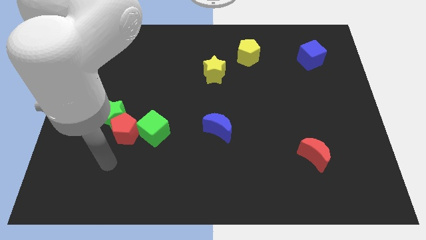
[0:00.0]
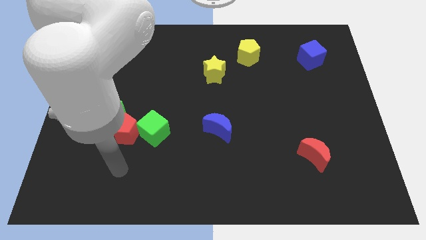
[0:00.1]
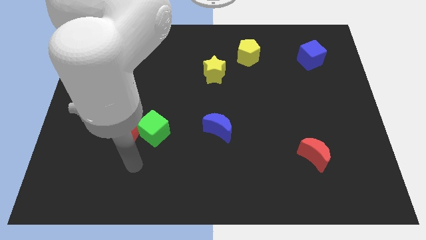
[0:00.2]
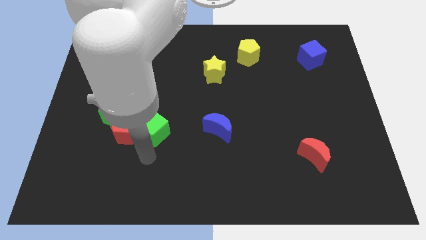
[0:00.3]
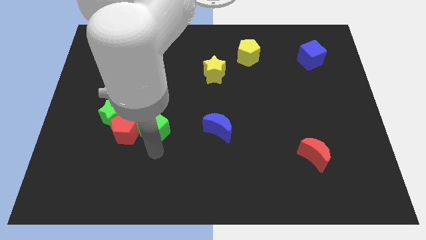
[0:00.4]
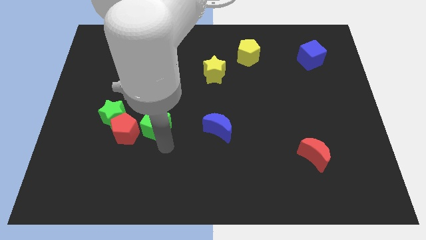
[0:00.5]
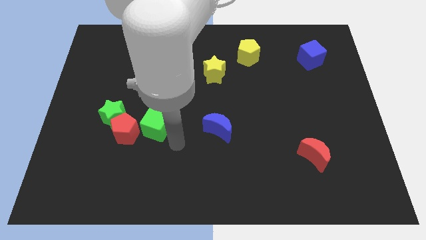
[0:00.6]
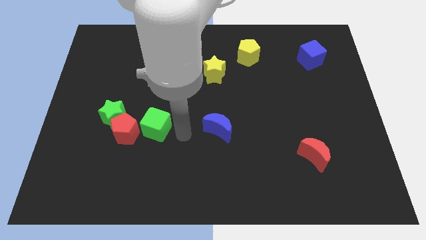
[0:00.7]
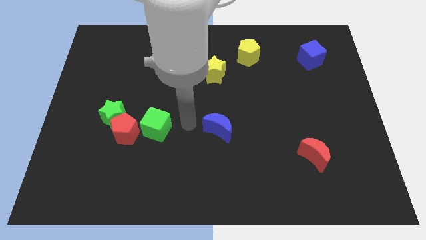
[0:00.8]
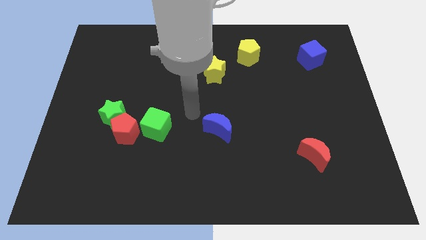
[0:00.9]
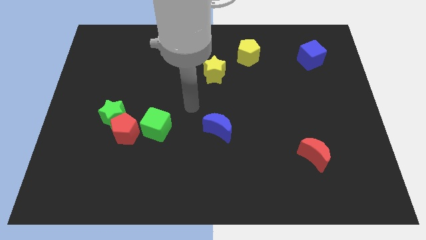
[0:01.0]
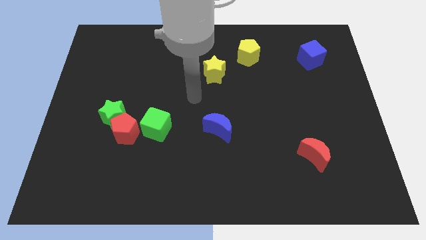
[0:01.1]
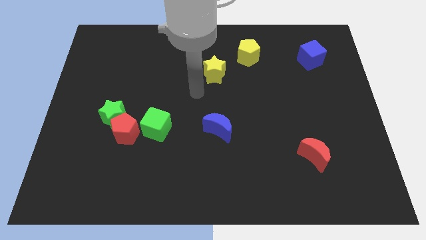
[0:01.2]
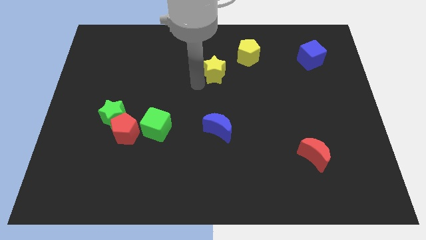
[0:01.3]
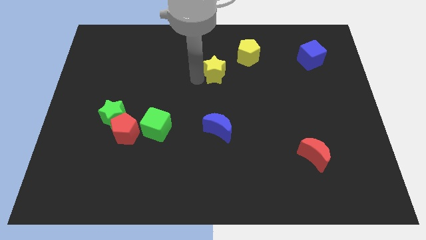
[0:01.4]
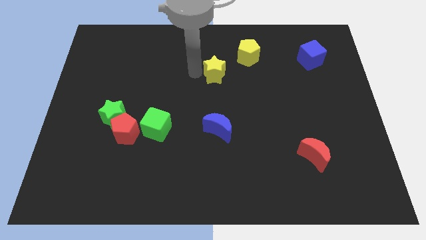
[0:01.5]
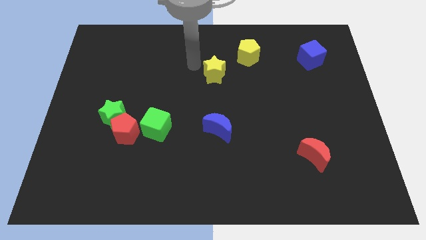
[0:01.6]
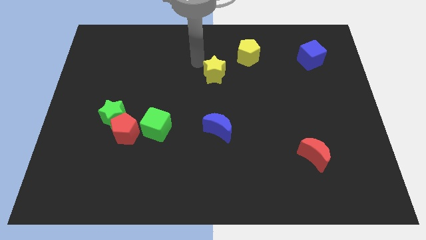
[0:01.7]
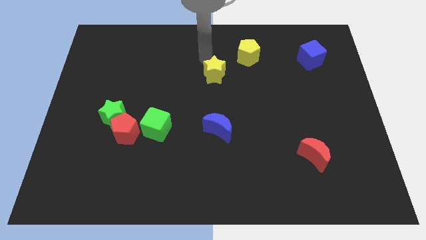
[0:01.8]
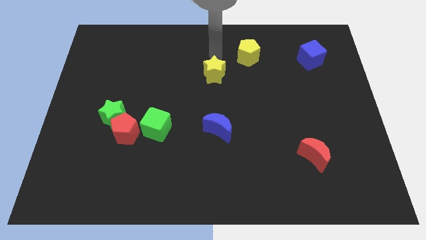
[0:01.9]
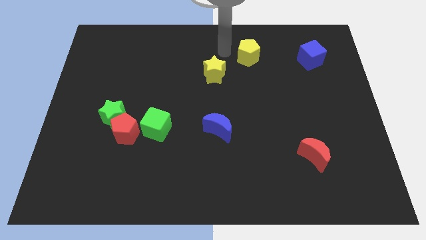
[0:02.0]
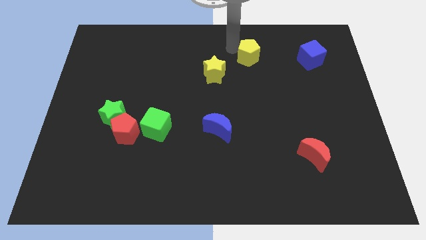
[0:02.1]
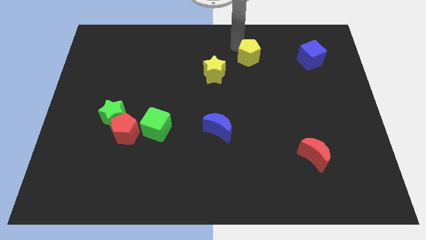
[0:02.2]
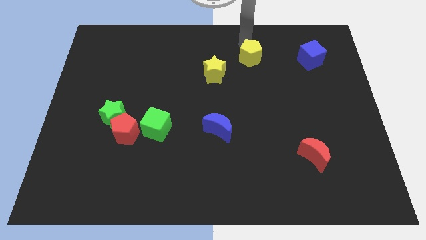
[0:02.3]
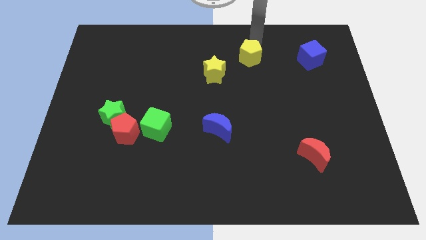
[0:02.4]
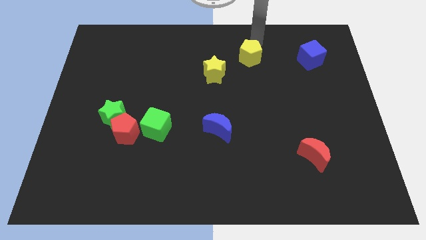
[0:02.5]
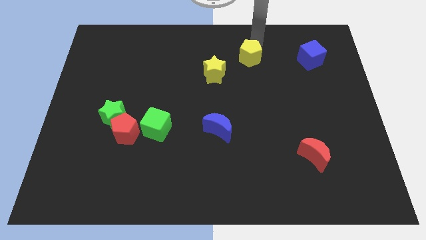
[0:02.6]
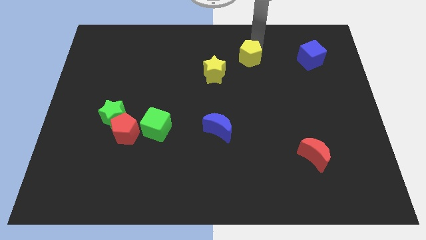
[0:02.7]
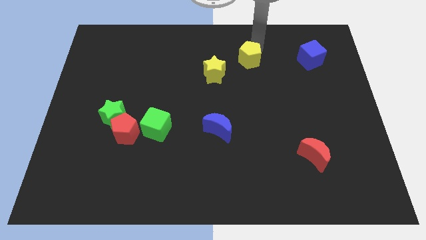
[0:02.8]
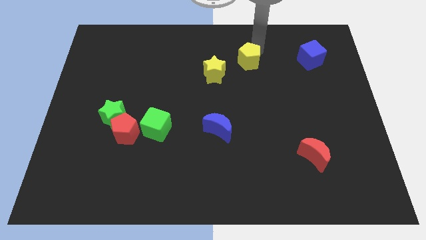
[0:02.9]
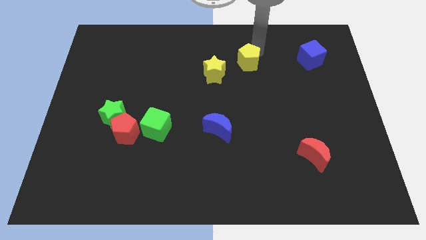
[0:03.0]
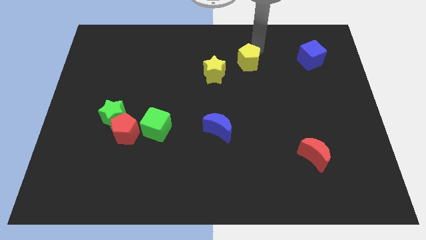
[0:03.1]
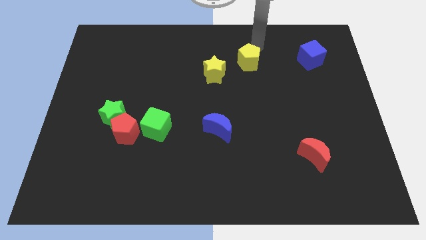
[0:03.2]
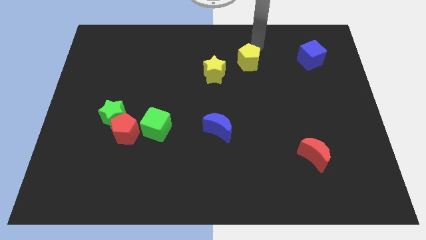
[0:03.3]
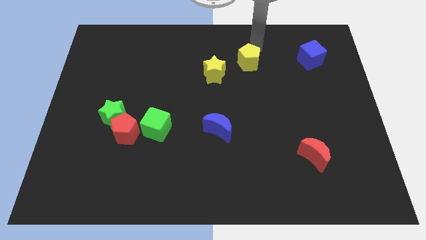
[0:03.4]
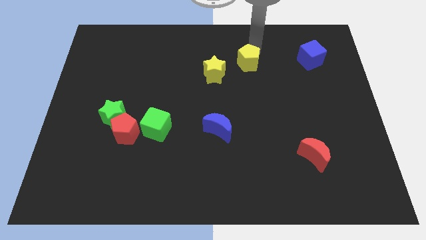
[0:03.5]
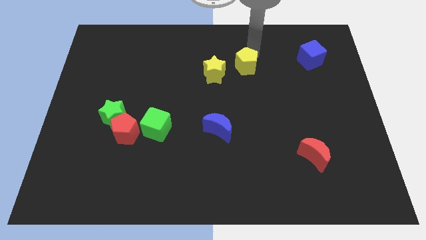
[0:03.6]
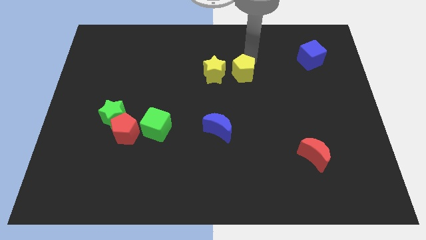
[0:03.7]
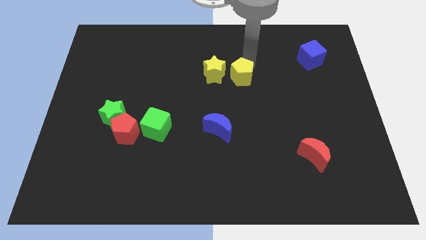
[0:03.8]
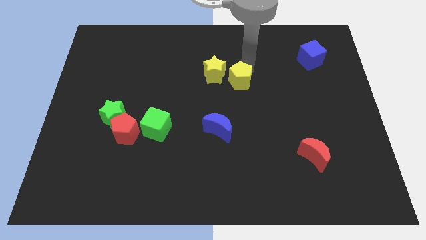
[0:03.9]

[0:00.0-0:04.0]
slide the yellow pentagon down and left somewhat

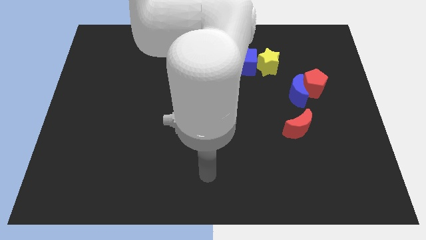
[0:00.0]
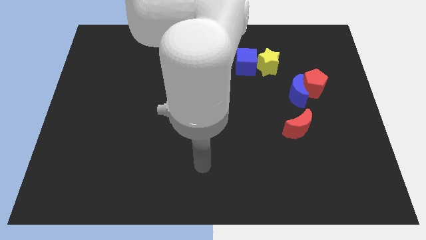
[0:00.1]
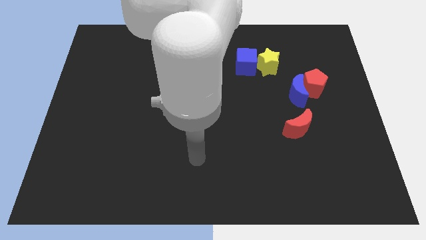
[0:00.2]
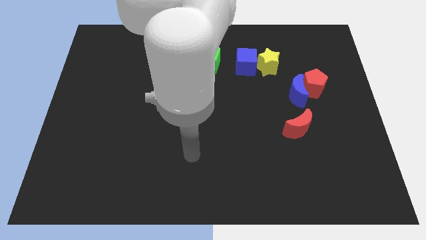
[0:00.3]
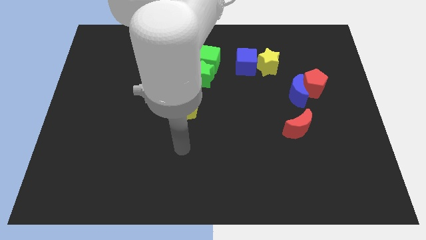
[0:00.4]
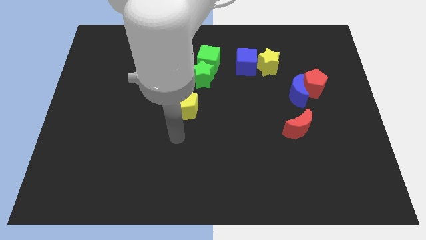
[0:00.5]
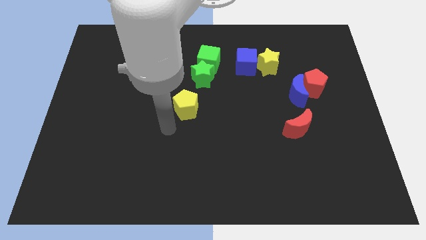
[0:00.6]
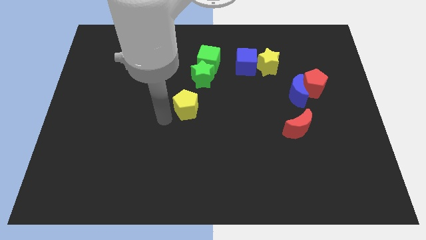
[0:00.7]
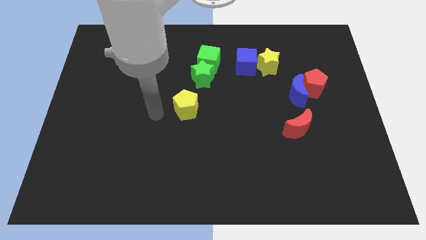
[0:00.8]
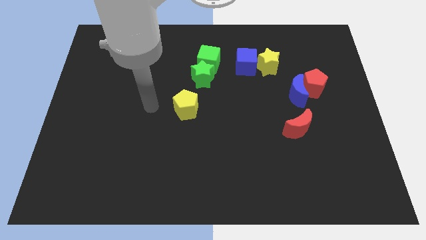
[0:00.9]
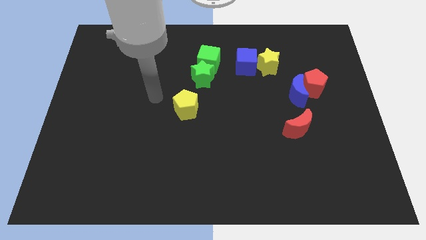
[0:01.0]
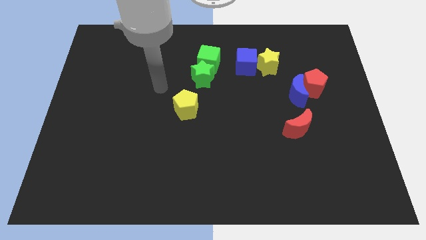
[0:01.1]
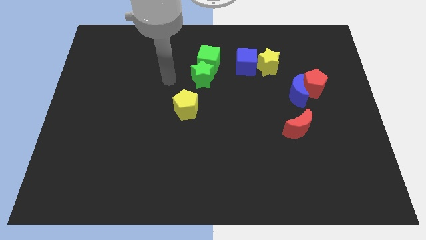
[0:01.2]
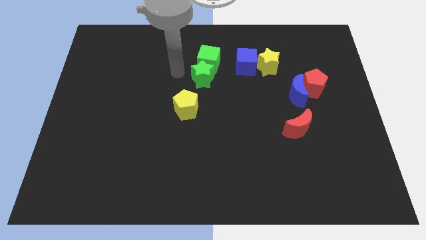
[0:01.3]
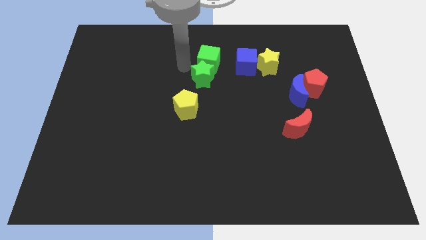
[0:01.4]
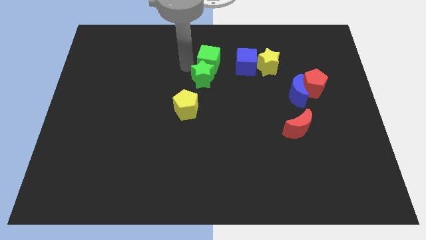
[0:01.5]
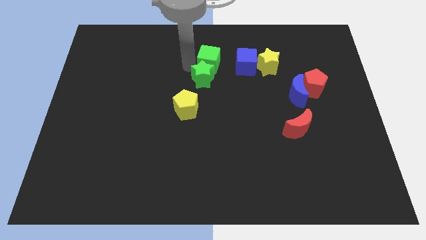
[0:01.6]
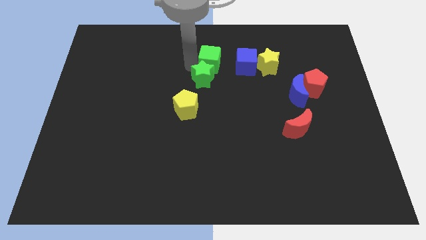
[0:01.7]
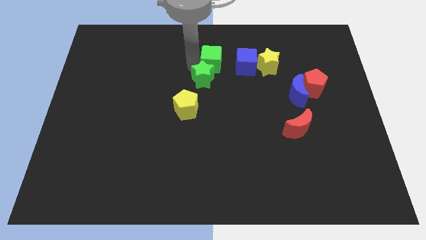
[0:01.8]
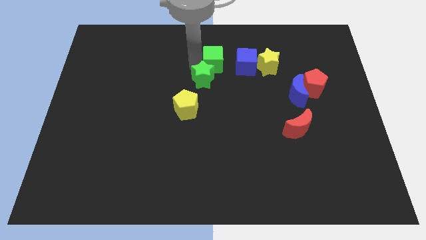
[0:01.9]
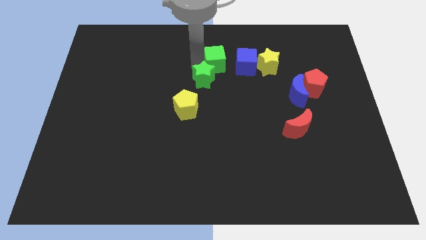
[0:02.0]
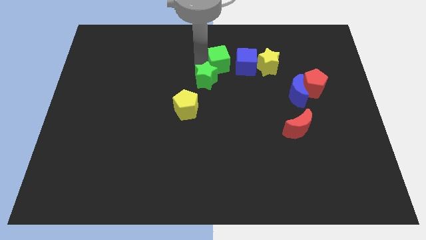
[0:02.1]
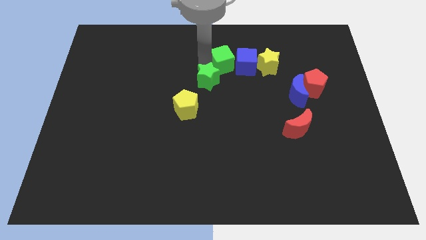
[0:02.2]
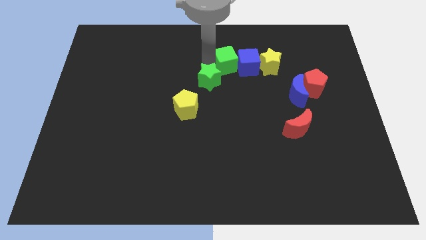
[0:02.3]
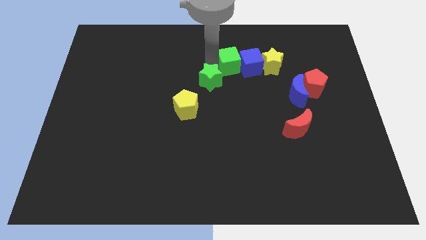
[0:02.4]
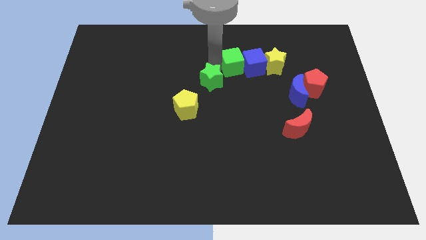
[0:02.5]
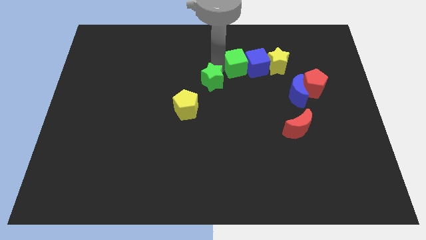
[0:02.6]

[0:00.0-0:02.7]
move the green cube to the right slightly

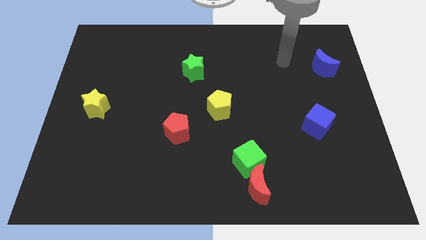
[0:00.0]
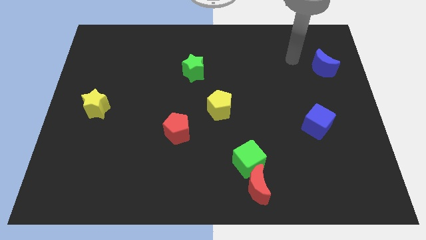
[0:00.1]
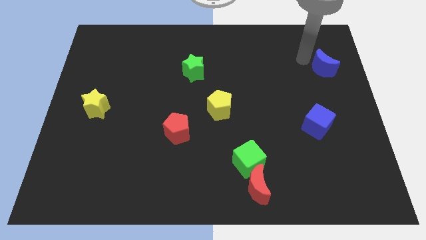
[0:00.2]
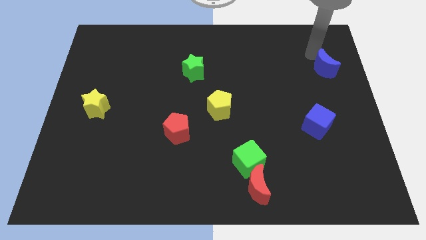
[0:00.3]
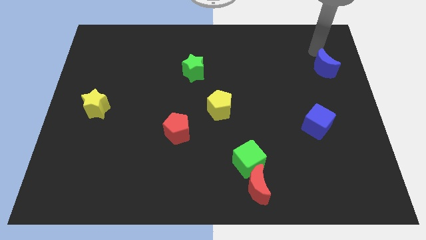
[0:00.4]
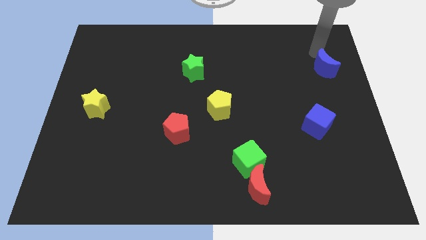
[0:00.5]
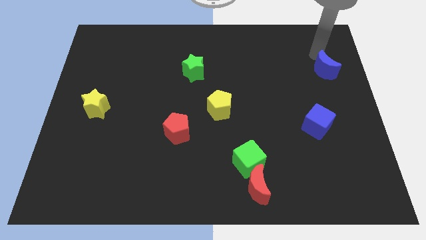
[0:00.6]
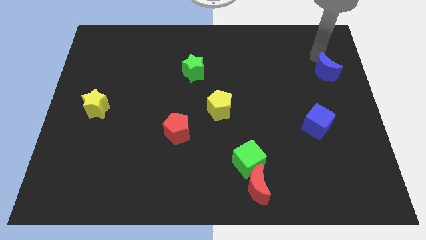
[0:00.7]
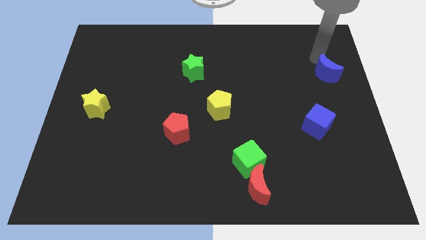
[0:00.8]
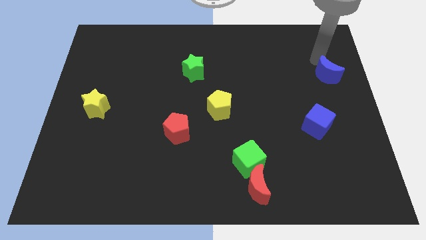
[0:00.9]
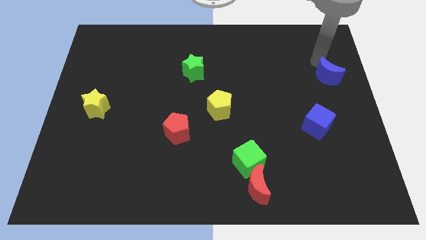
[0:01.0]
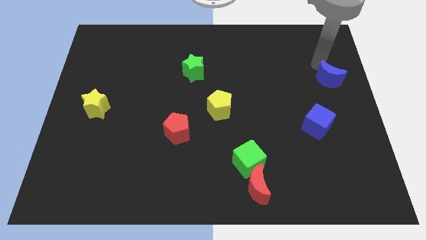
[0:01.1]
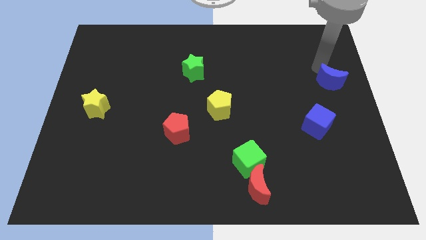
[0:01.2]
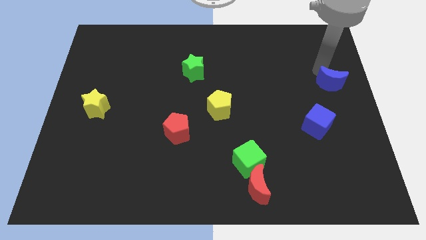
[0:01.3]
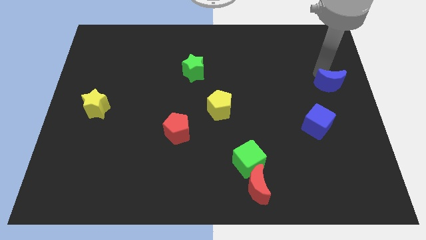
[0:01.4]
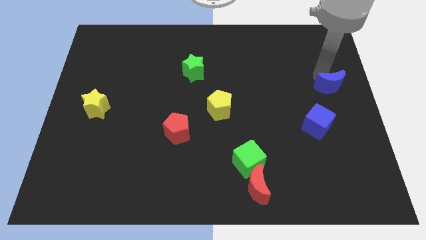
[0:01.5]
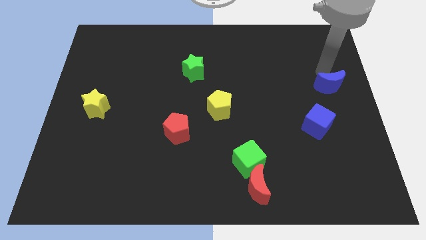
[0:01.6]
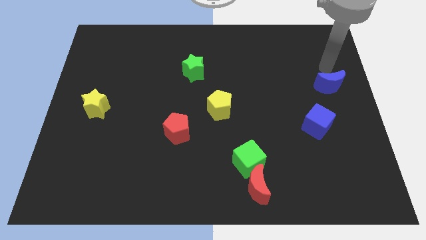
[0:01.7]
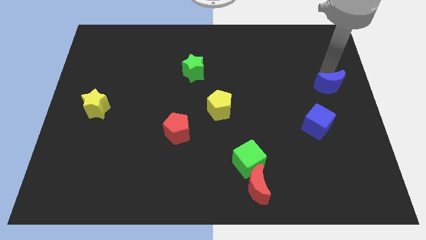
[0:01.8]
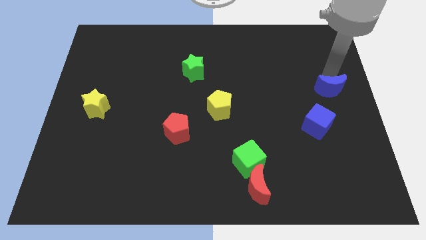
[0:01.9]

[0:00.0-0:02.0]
slightly slide the blue moon downwards
